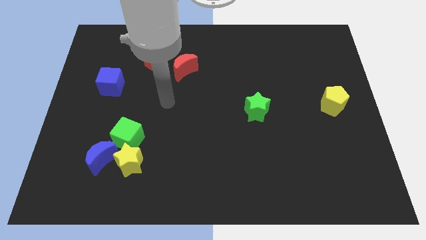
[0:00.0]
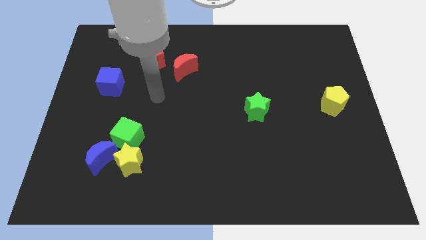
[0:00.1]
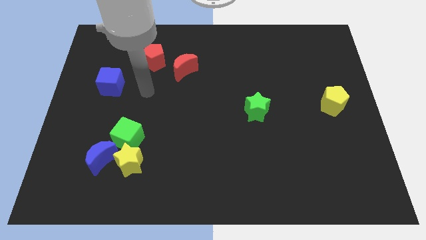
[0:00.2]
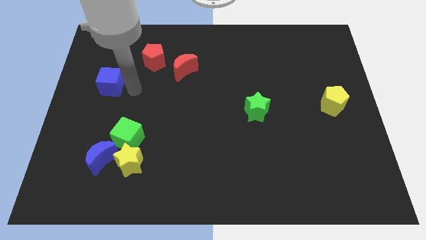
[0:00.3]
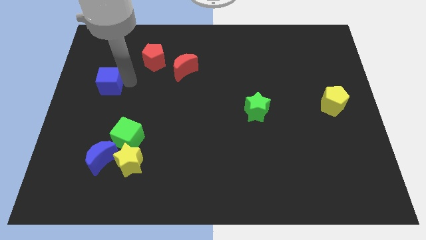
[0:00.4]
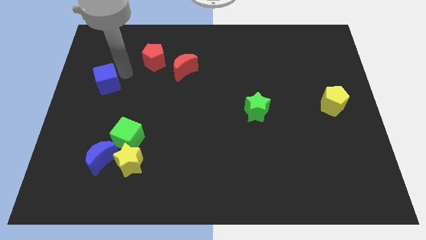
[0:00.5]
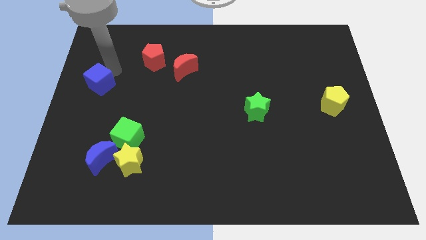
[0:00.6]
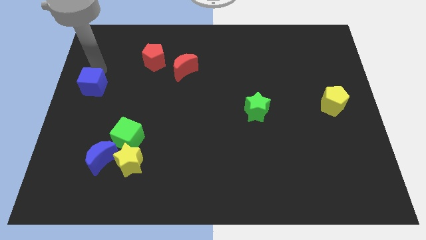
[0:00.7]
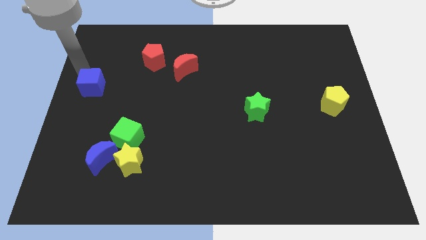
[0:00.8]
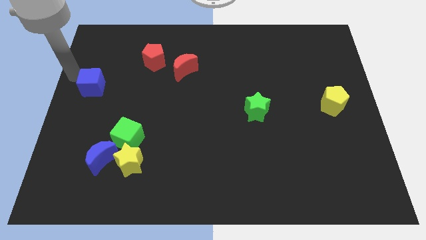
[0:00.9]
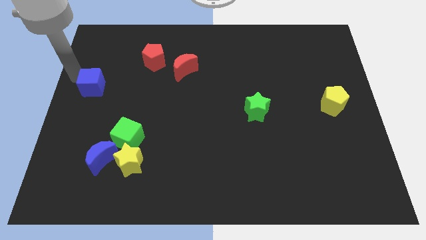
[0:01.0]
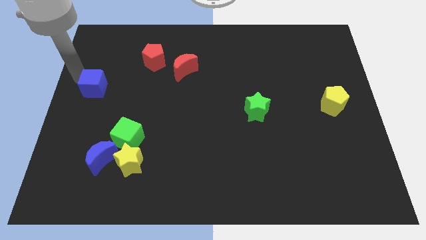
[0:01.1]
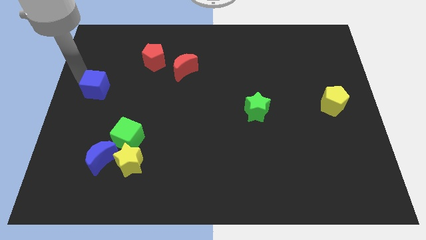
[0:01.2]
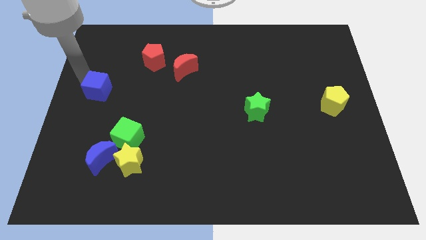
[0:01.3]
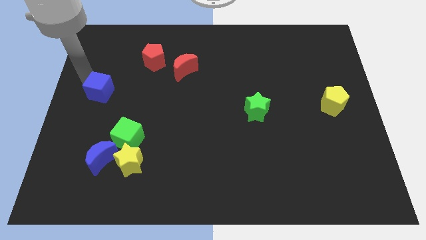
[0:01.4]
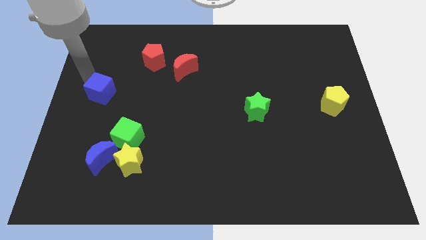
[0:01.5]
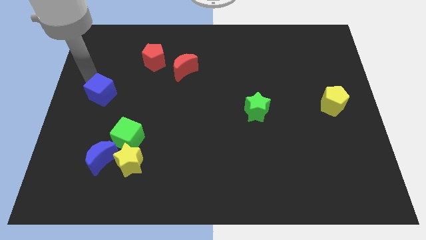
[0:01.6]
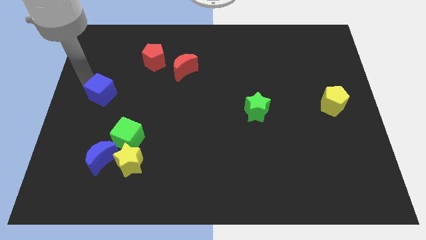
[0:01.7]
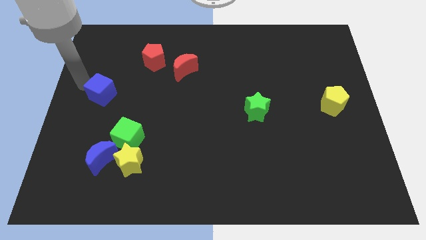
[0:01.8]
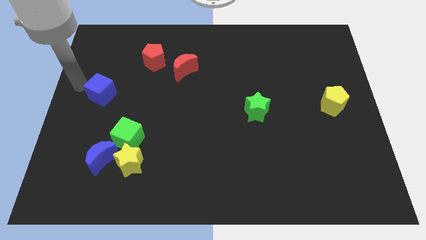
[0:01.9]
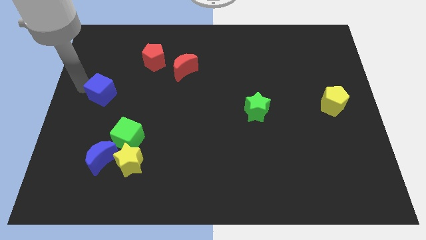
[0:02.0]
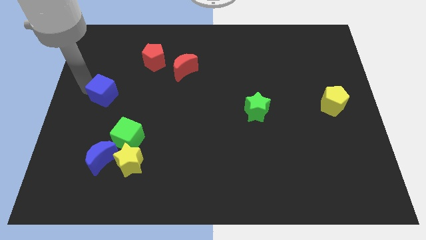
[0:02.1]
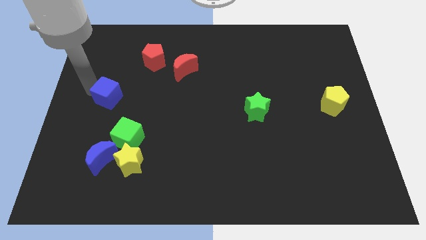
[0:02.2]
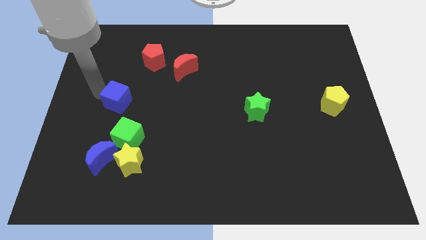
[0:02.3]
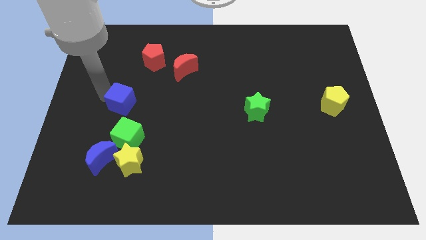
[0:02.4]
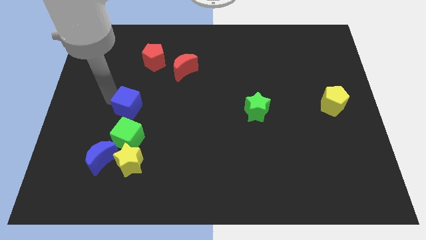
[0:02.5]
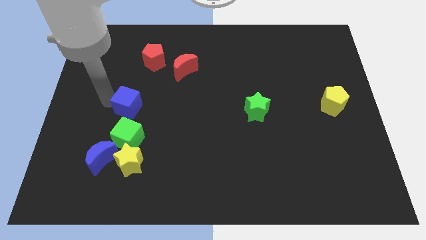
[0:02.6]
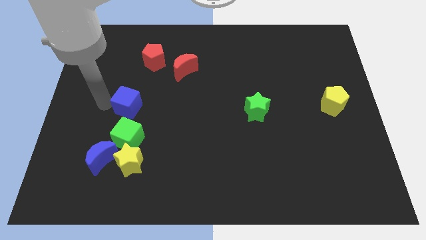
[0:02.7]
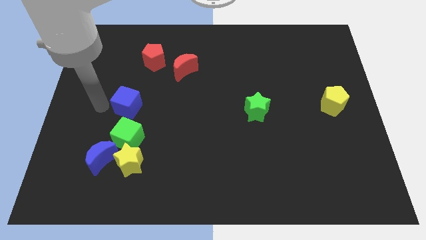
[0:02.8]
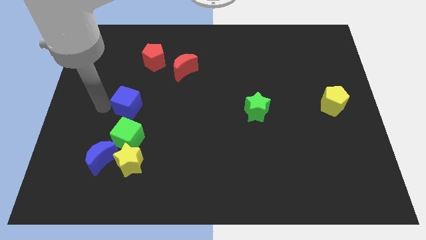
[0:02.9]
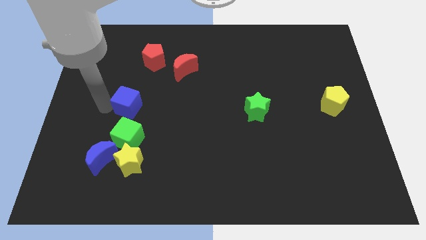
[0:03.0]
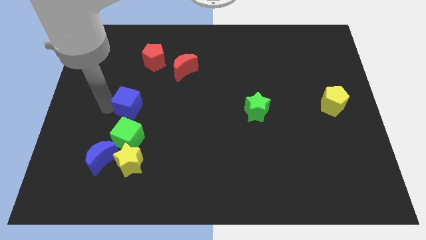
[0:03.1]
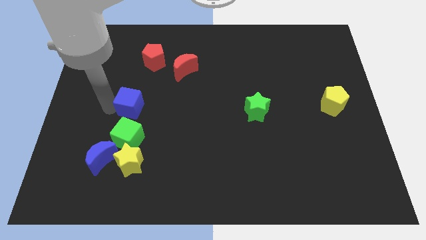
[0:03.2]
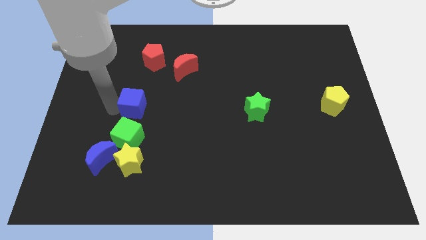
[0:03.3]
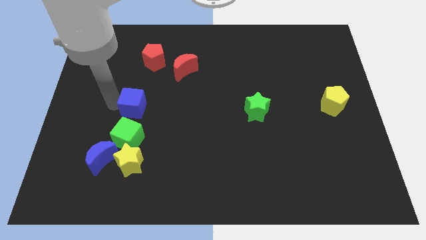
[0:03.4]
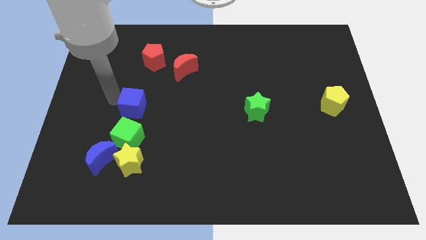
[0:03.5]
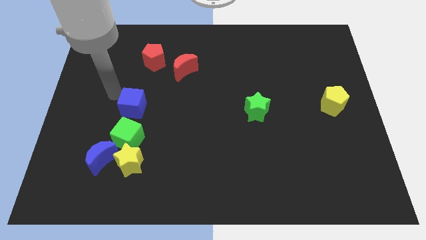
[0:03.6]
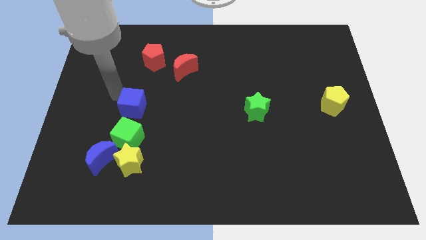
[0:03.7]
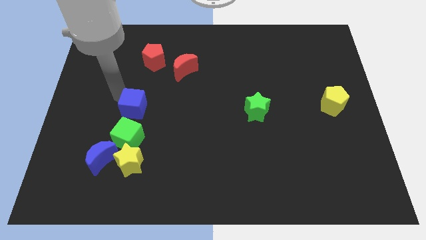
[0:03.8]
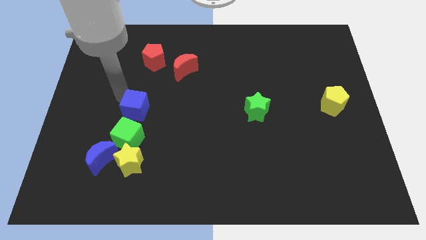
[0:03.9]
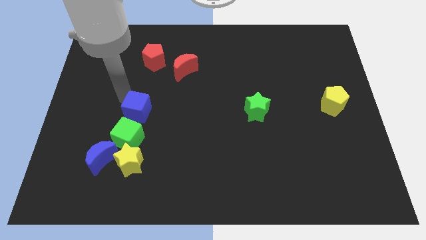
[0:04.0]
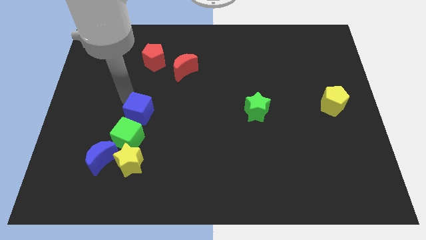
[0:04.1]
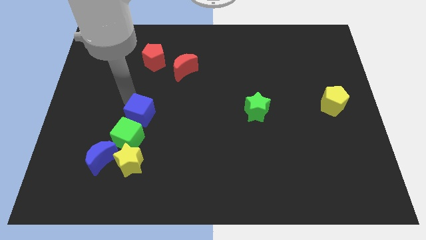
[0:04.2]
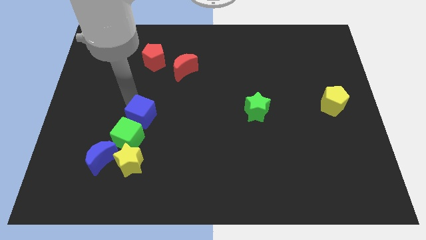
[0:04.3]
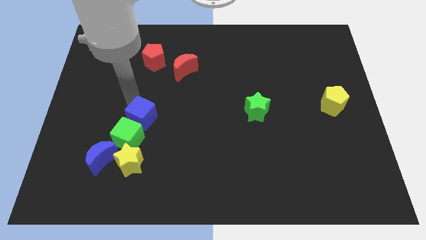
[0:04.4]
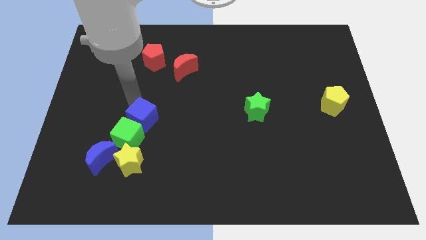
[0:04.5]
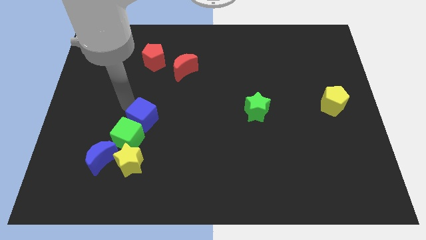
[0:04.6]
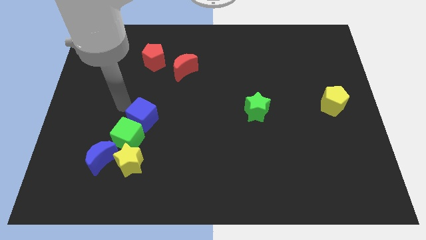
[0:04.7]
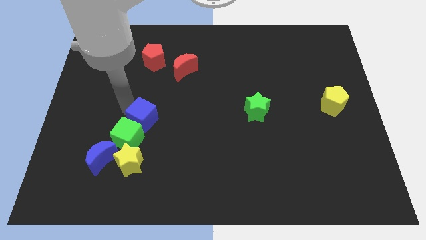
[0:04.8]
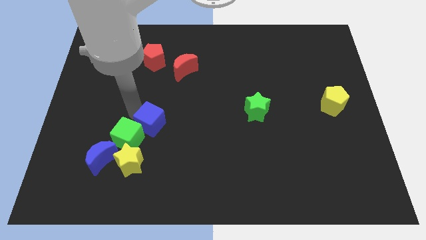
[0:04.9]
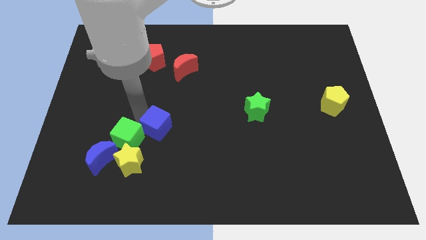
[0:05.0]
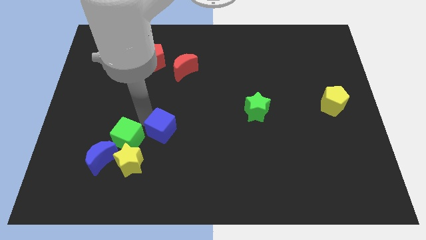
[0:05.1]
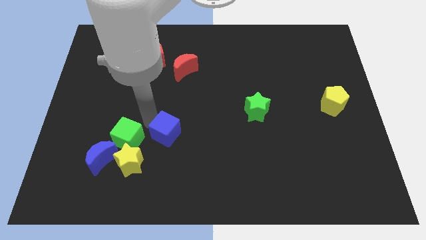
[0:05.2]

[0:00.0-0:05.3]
push the blue cube downwards and right diagonally

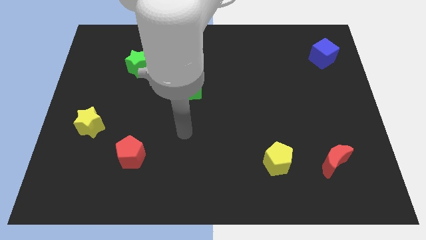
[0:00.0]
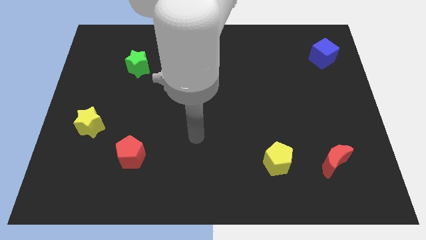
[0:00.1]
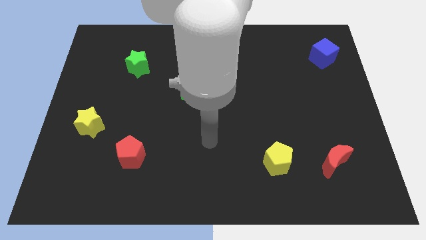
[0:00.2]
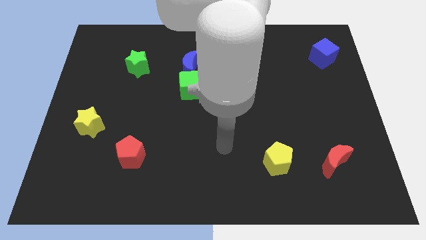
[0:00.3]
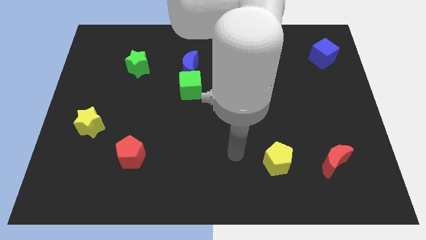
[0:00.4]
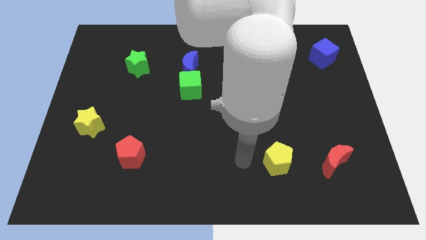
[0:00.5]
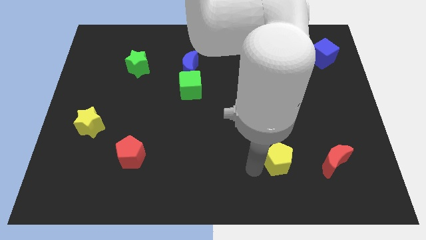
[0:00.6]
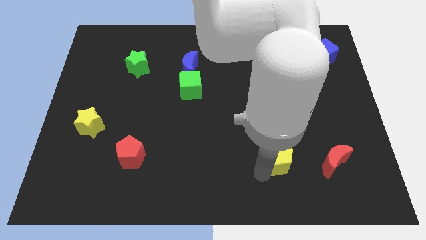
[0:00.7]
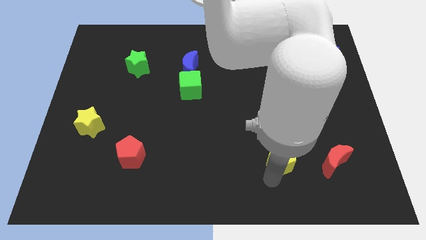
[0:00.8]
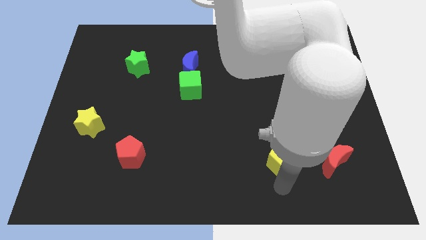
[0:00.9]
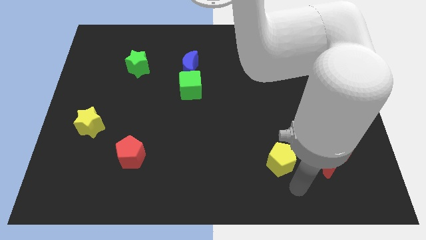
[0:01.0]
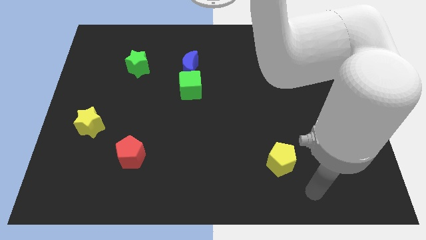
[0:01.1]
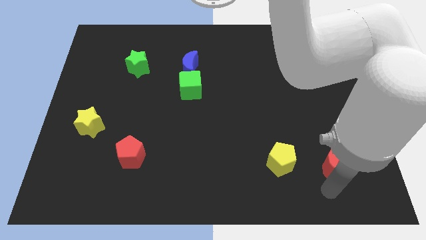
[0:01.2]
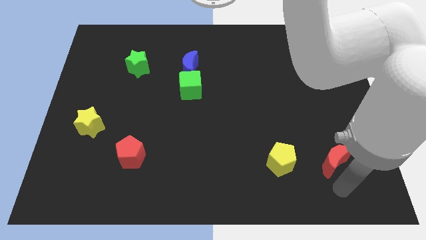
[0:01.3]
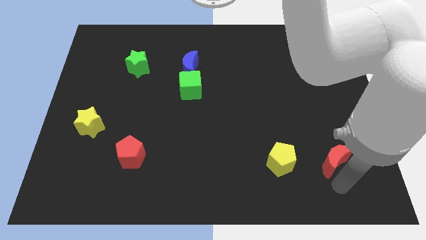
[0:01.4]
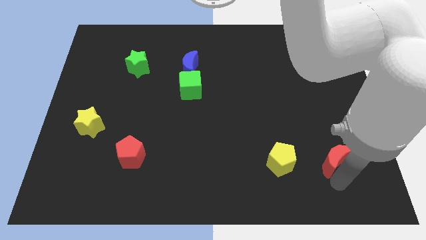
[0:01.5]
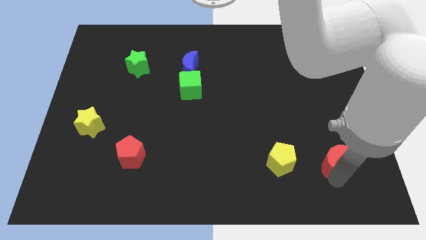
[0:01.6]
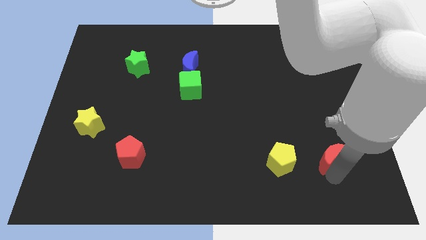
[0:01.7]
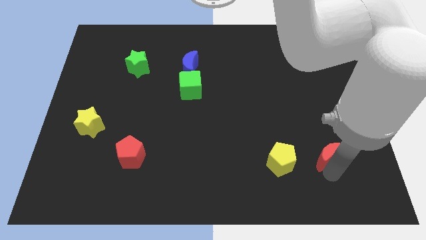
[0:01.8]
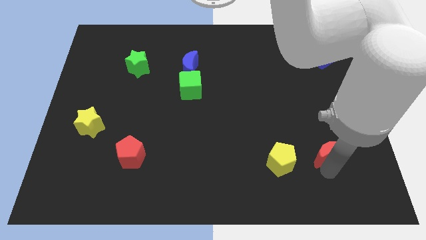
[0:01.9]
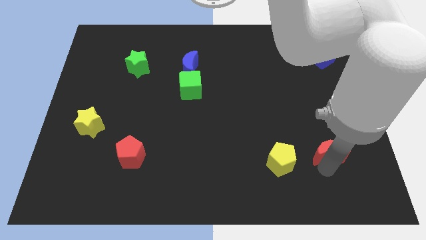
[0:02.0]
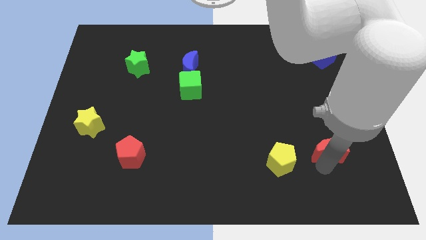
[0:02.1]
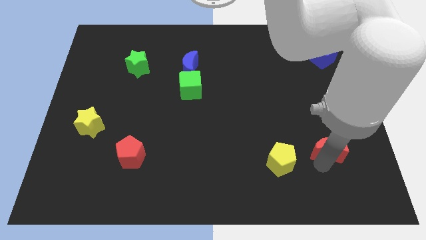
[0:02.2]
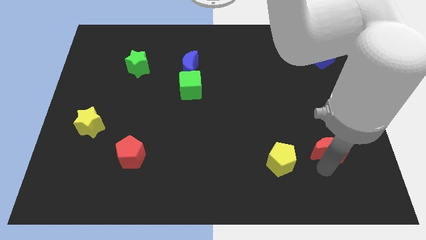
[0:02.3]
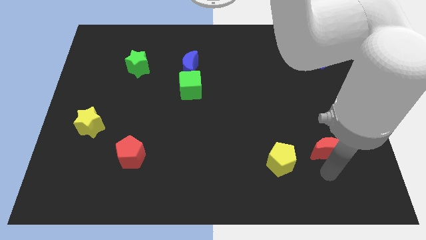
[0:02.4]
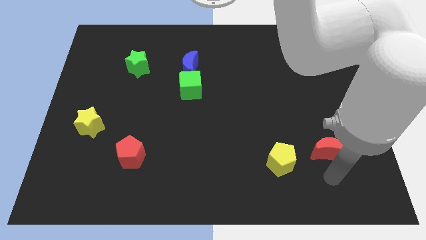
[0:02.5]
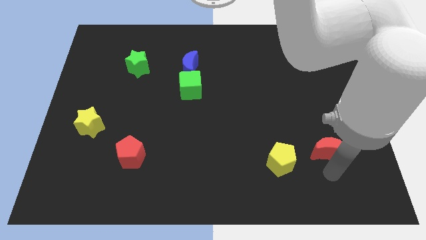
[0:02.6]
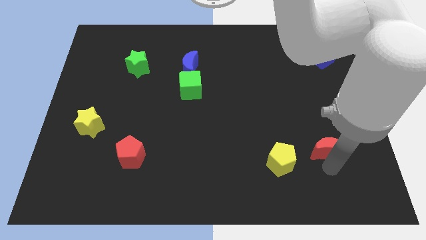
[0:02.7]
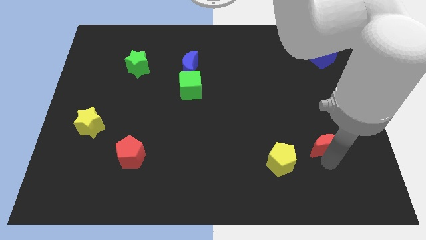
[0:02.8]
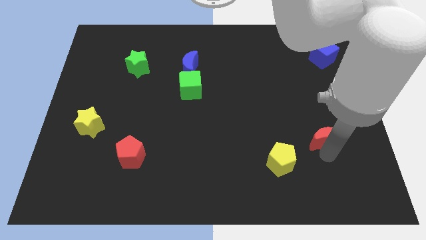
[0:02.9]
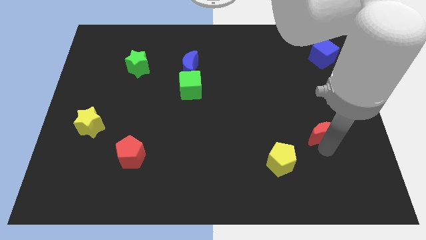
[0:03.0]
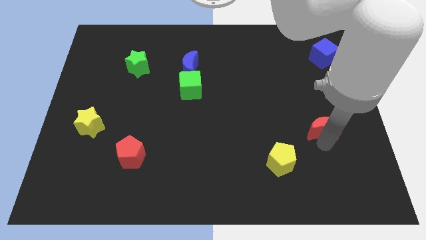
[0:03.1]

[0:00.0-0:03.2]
slide the red moon upwards a bit
